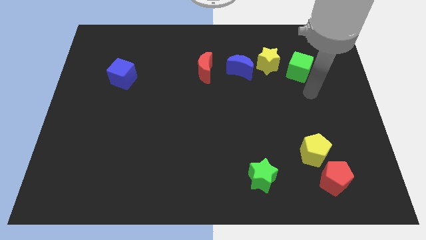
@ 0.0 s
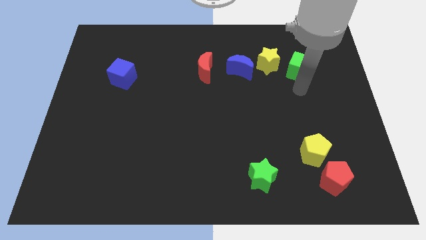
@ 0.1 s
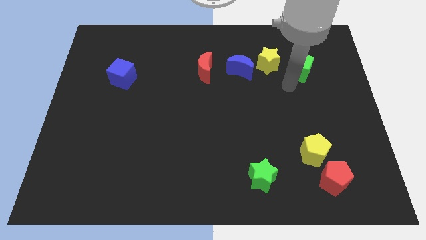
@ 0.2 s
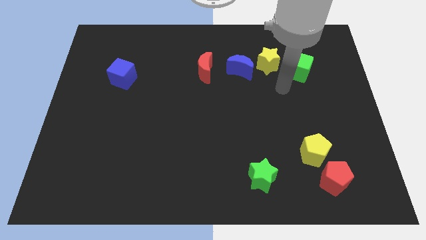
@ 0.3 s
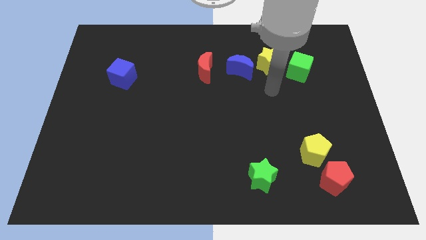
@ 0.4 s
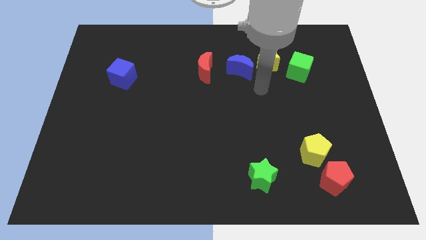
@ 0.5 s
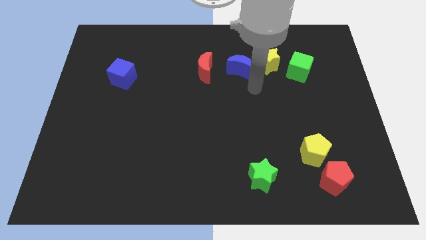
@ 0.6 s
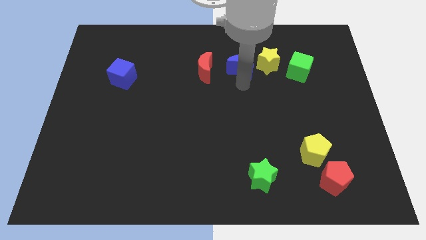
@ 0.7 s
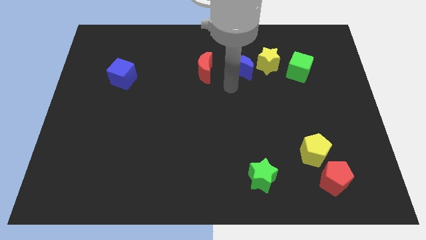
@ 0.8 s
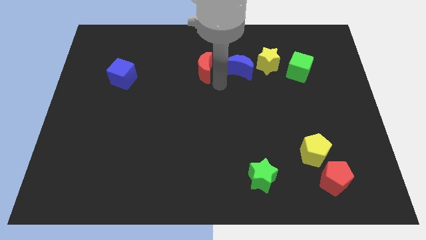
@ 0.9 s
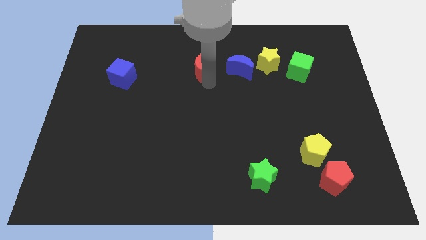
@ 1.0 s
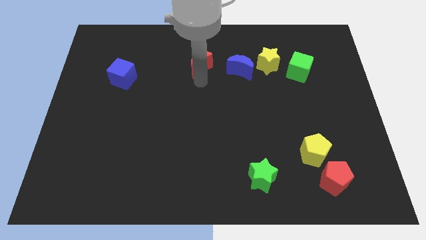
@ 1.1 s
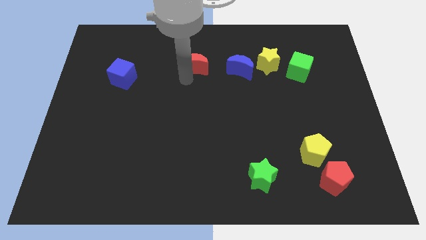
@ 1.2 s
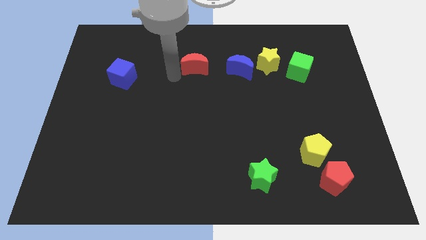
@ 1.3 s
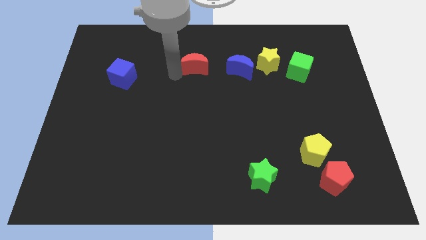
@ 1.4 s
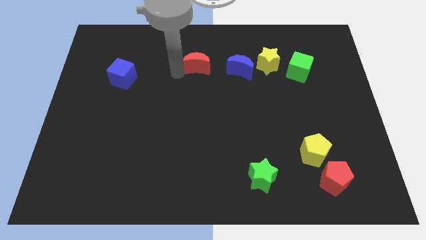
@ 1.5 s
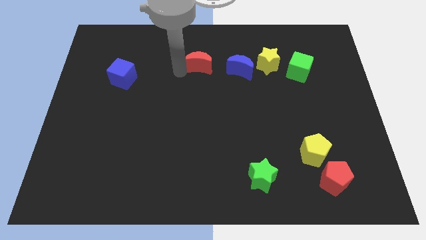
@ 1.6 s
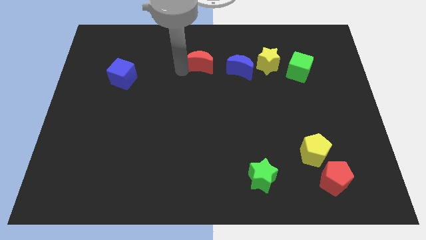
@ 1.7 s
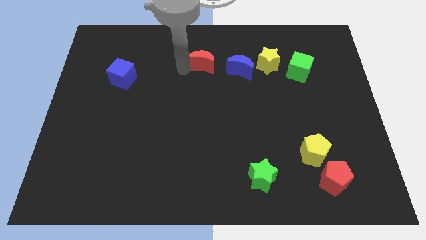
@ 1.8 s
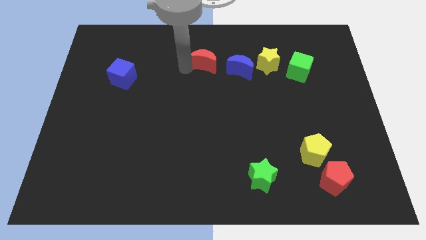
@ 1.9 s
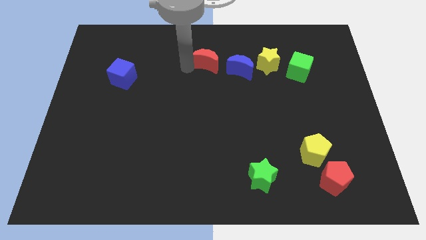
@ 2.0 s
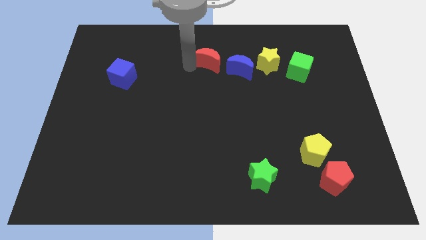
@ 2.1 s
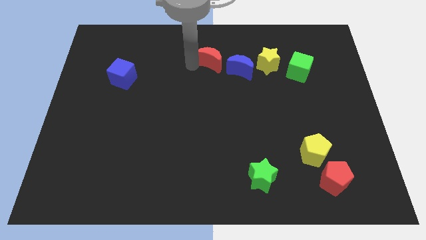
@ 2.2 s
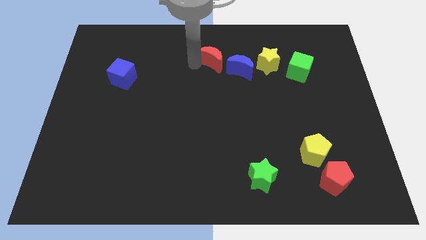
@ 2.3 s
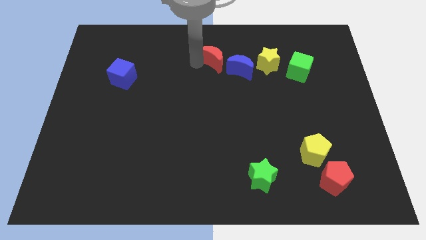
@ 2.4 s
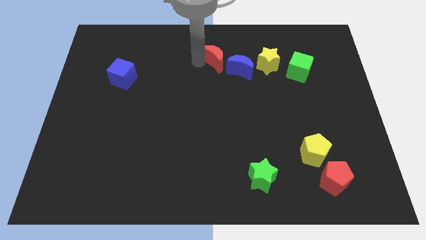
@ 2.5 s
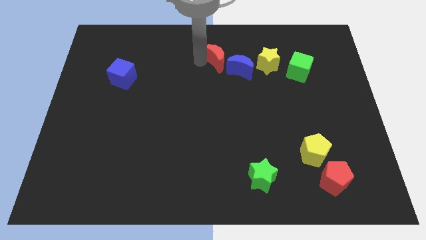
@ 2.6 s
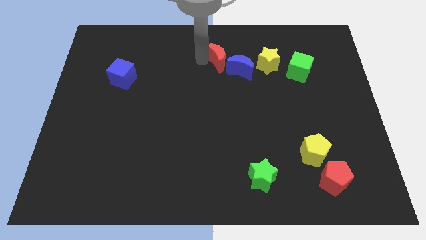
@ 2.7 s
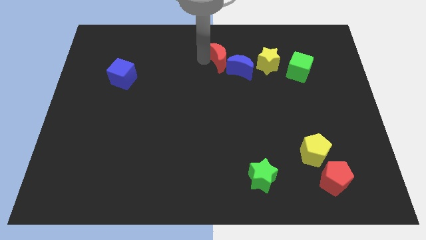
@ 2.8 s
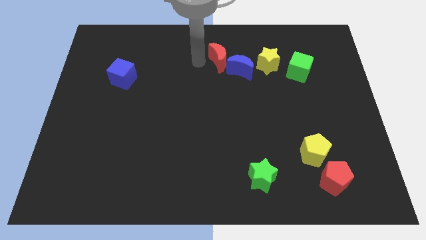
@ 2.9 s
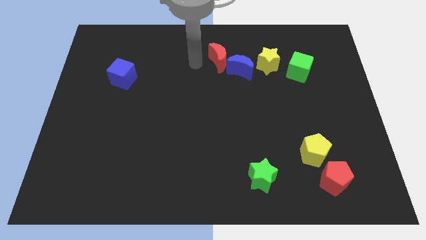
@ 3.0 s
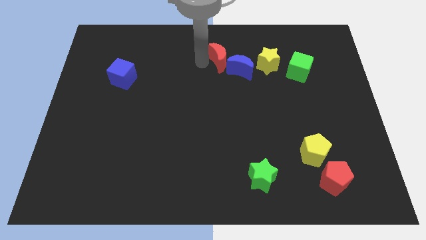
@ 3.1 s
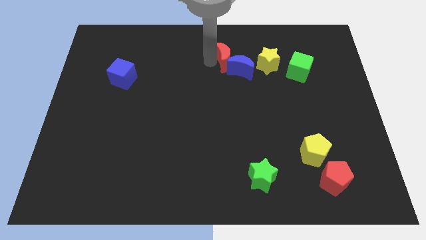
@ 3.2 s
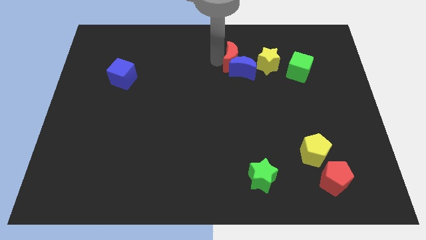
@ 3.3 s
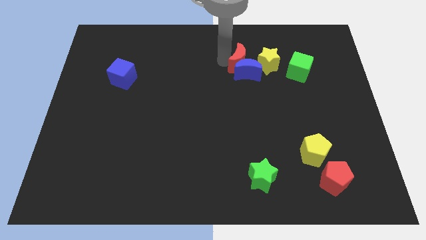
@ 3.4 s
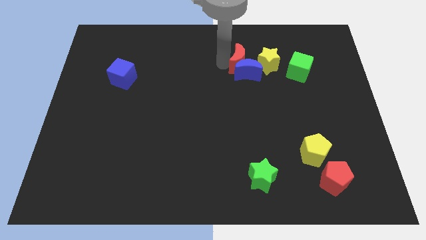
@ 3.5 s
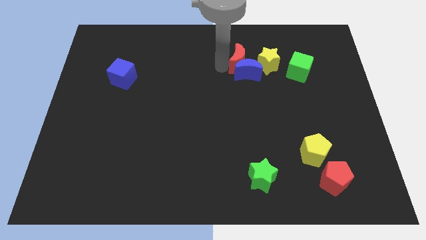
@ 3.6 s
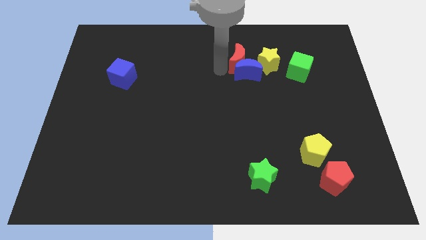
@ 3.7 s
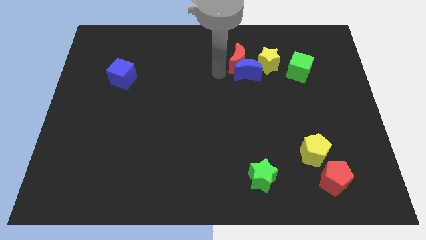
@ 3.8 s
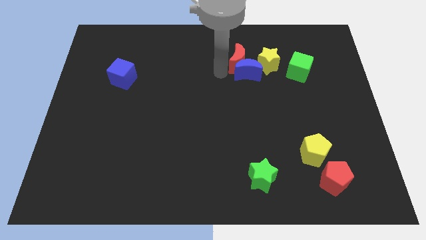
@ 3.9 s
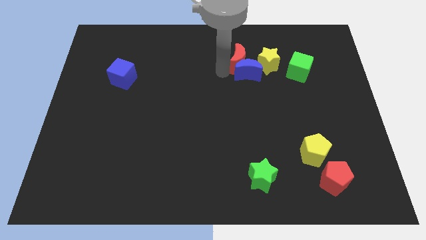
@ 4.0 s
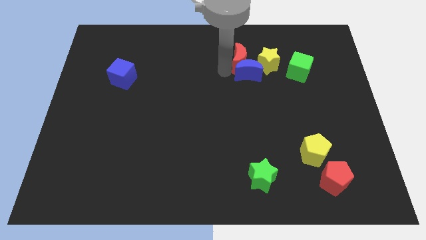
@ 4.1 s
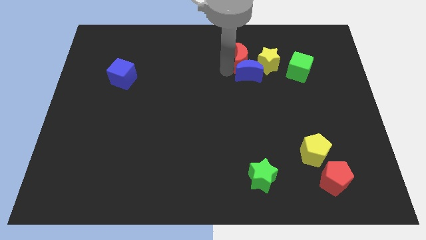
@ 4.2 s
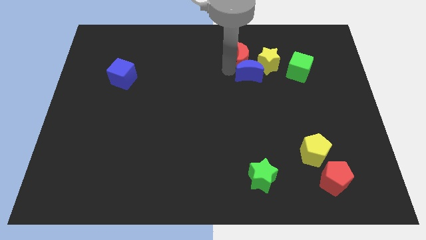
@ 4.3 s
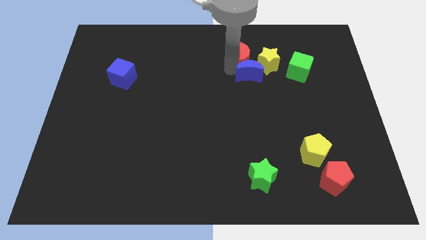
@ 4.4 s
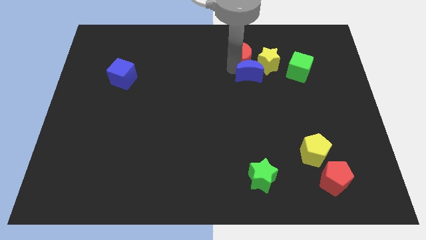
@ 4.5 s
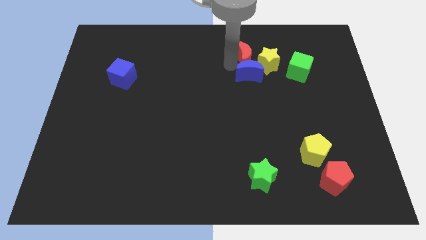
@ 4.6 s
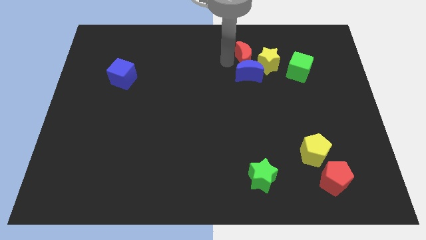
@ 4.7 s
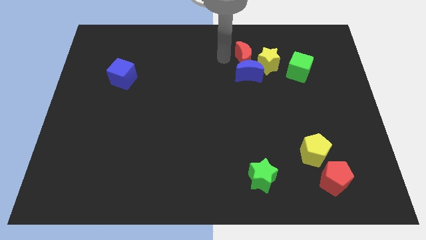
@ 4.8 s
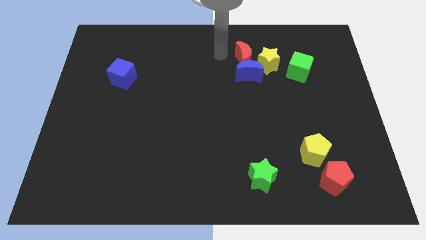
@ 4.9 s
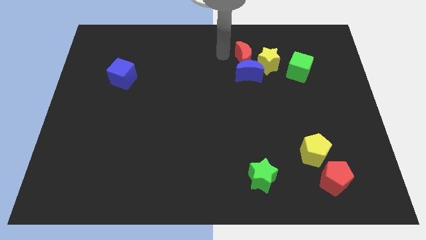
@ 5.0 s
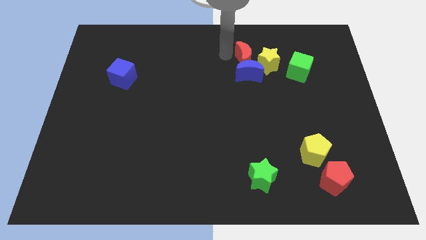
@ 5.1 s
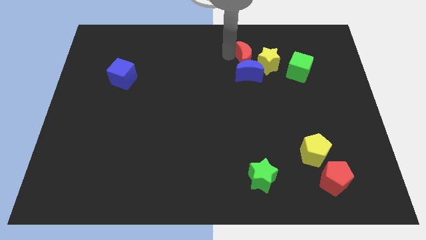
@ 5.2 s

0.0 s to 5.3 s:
move the red moon towards the yellow star
